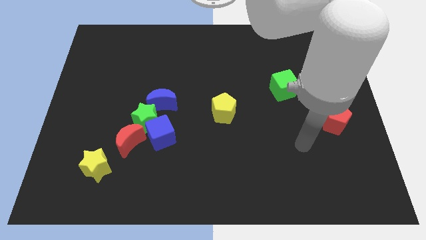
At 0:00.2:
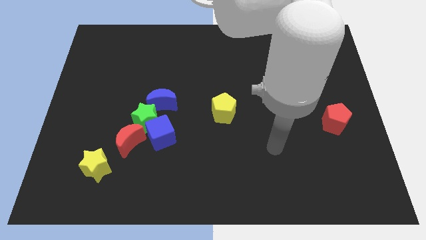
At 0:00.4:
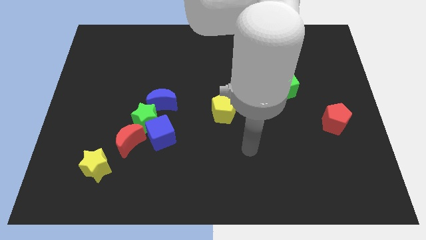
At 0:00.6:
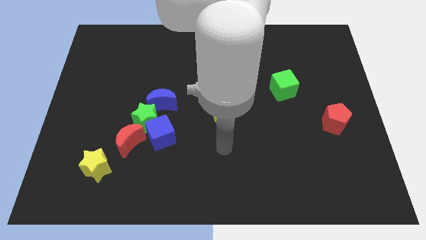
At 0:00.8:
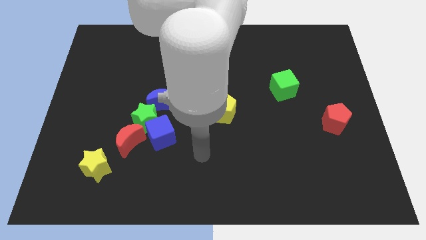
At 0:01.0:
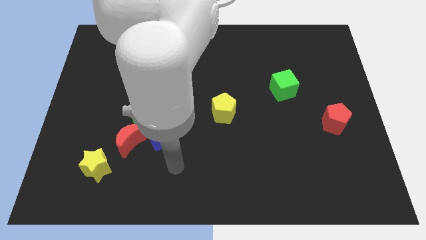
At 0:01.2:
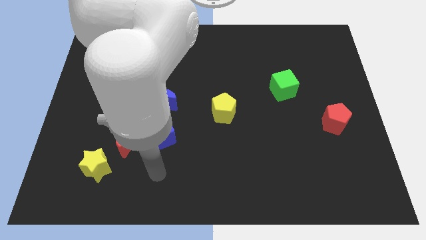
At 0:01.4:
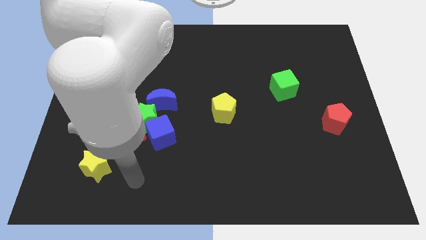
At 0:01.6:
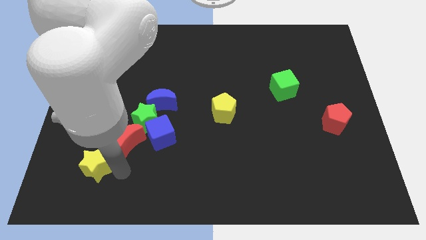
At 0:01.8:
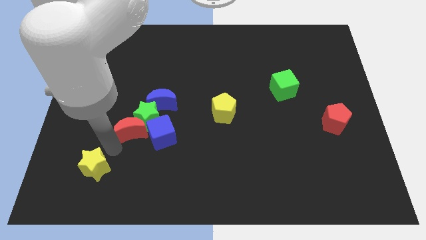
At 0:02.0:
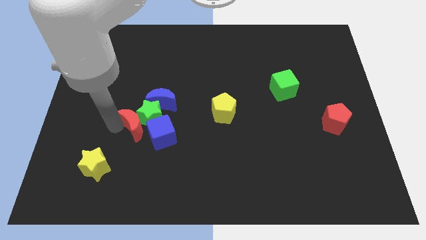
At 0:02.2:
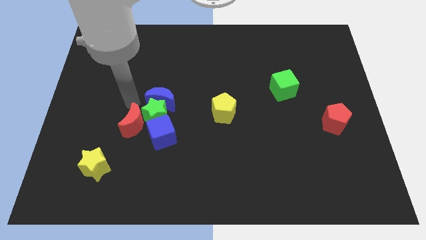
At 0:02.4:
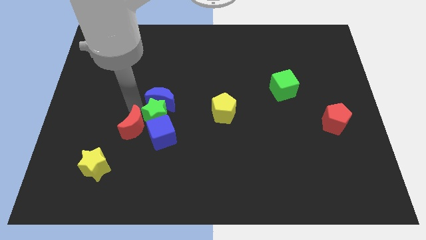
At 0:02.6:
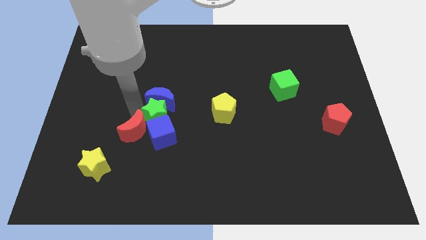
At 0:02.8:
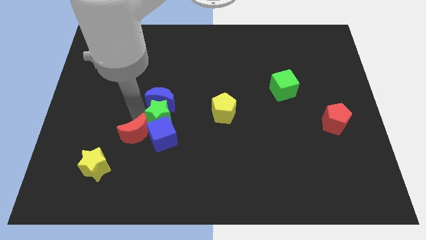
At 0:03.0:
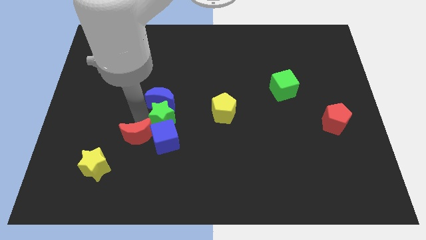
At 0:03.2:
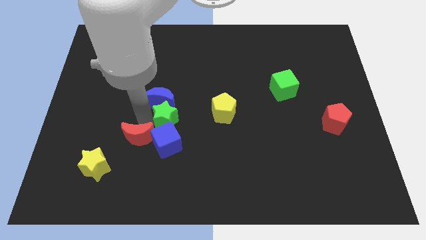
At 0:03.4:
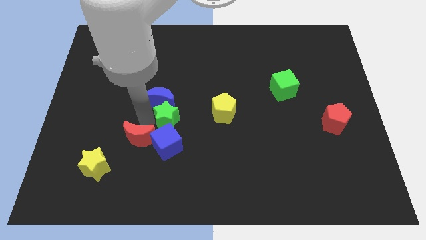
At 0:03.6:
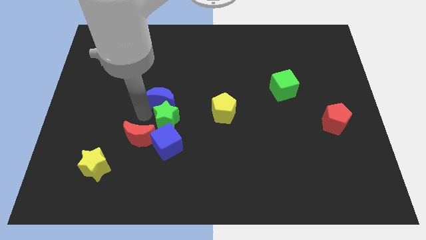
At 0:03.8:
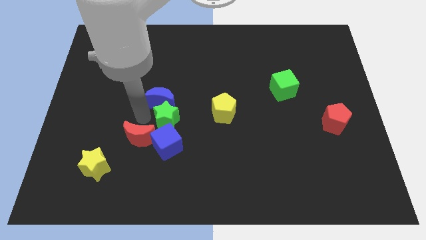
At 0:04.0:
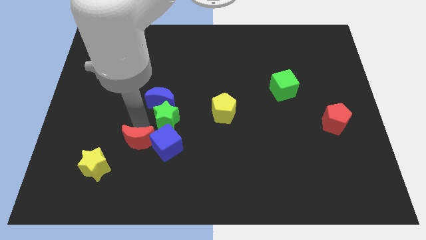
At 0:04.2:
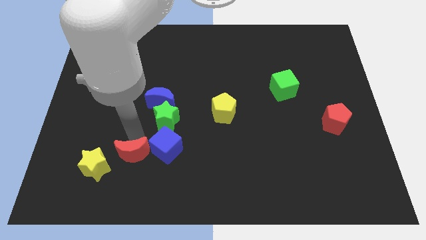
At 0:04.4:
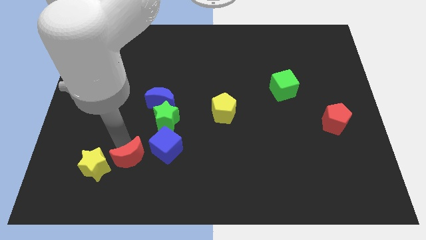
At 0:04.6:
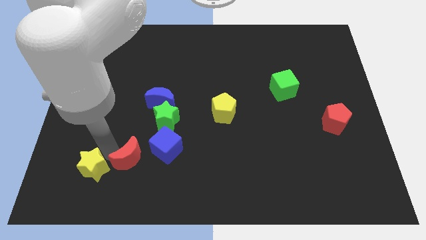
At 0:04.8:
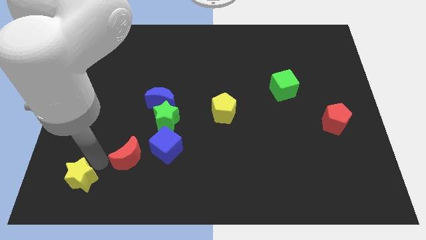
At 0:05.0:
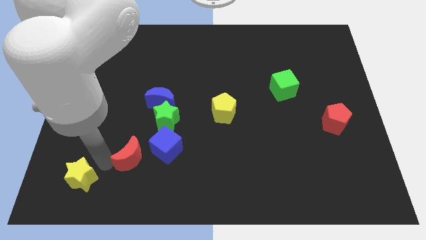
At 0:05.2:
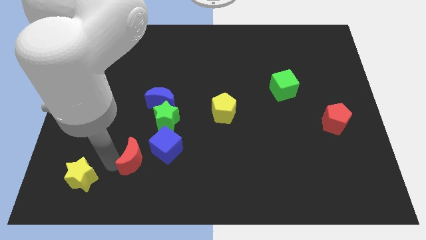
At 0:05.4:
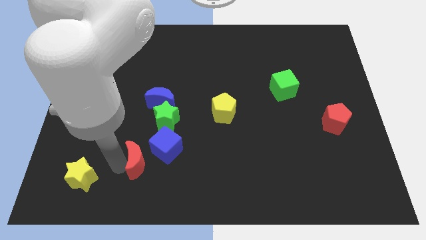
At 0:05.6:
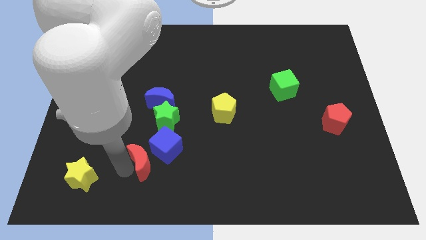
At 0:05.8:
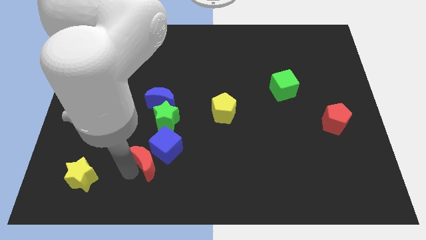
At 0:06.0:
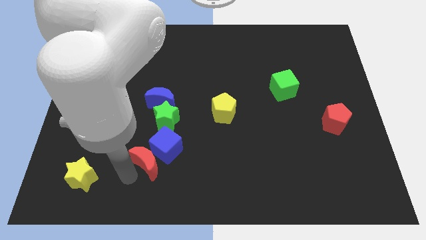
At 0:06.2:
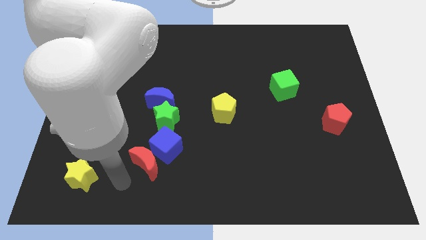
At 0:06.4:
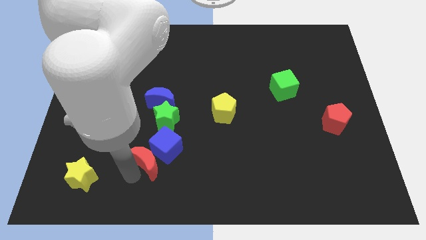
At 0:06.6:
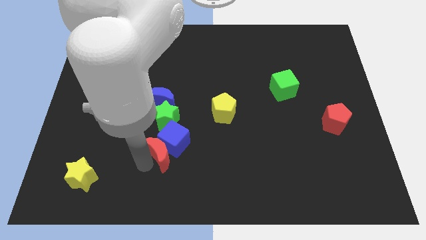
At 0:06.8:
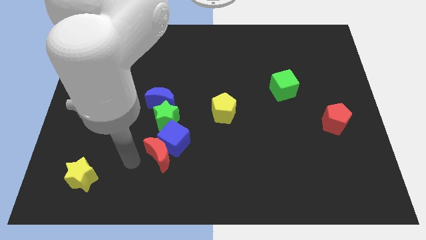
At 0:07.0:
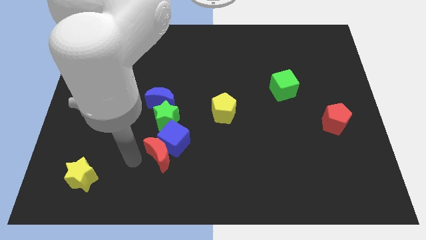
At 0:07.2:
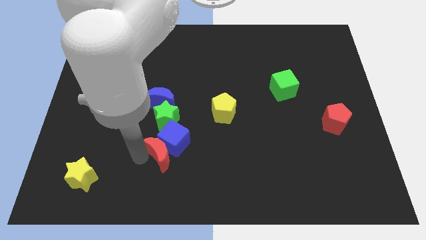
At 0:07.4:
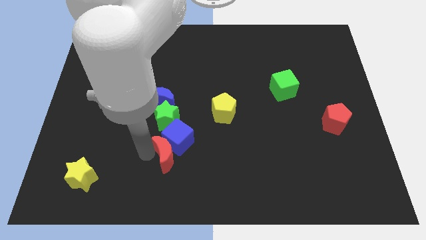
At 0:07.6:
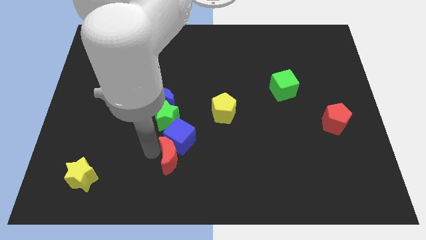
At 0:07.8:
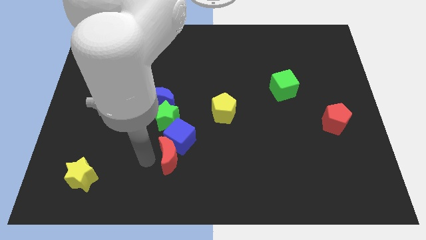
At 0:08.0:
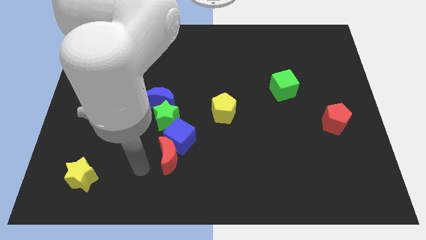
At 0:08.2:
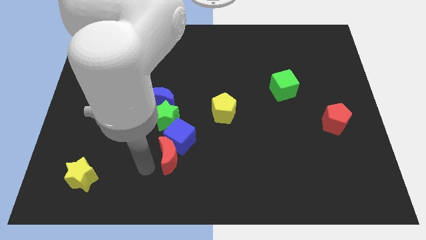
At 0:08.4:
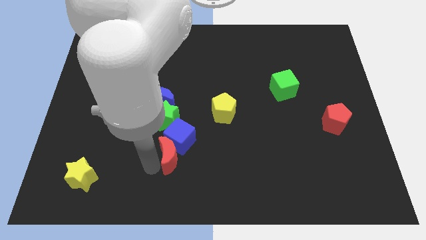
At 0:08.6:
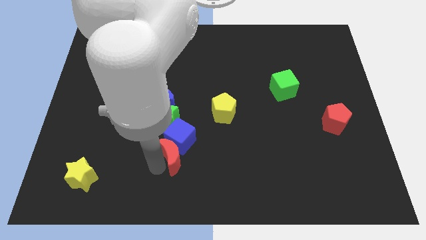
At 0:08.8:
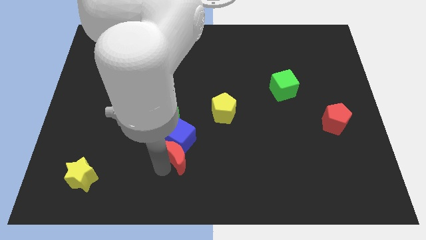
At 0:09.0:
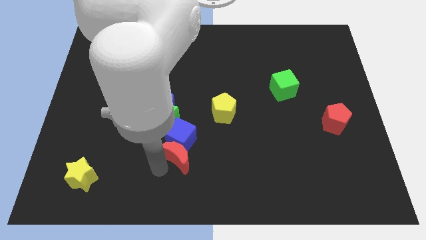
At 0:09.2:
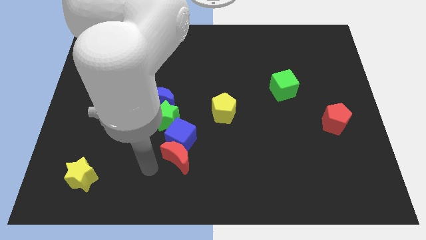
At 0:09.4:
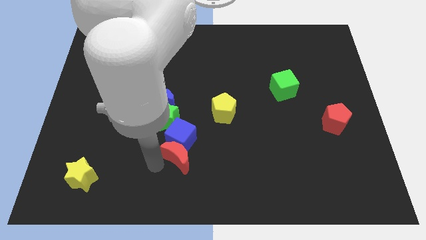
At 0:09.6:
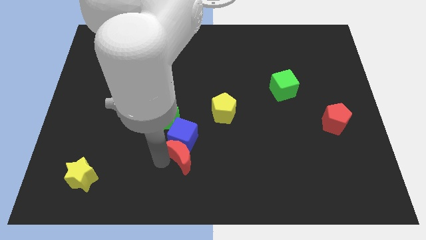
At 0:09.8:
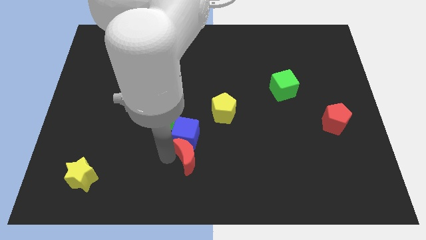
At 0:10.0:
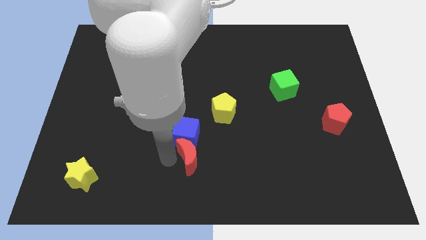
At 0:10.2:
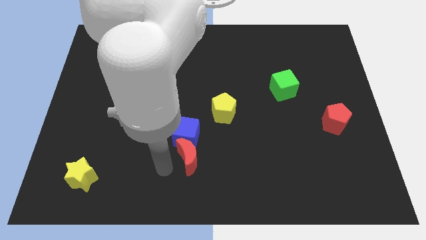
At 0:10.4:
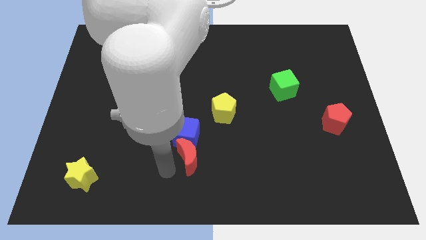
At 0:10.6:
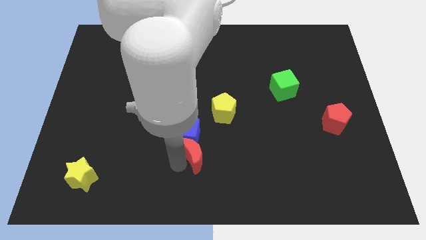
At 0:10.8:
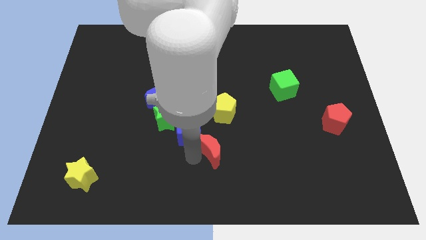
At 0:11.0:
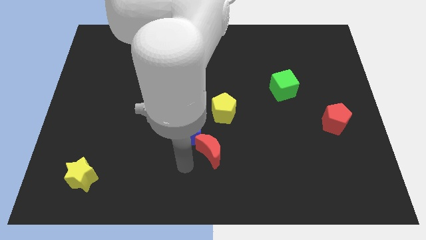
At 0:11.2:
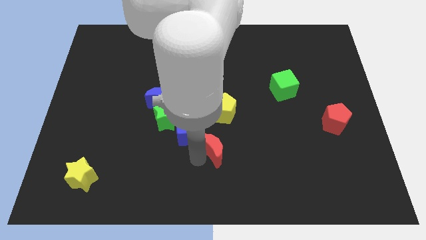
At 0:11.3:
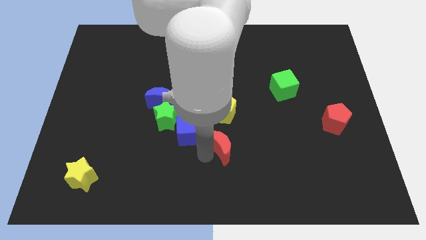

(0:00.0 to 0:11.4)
move the red moon to the right

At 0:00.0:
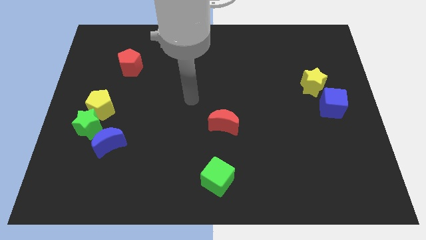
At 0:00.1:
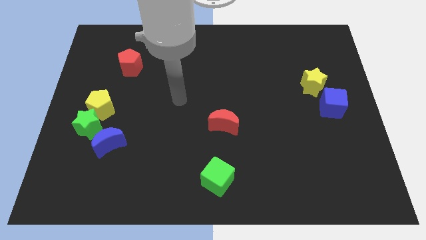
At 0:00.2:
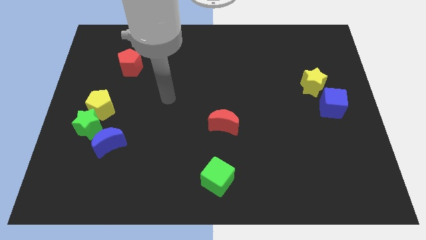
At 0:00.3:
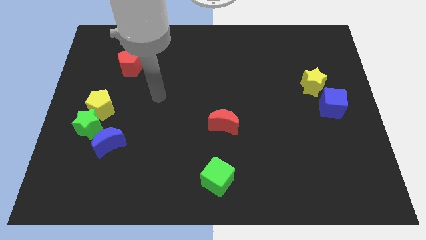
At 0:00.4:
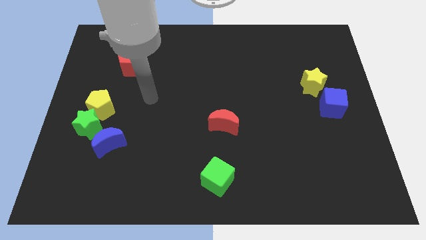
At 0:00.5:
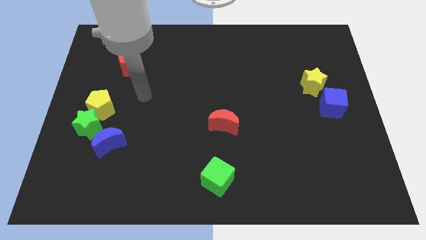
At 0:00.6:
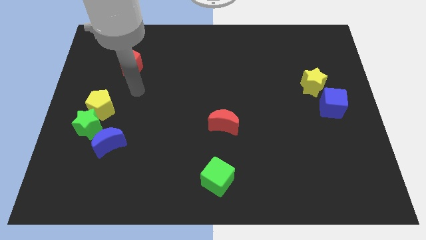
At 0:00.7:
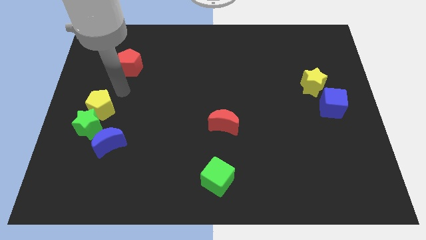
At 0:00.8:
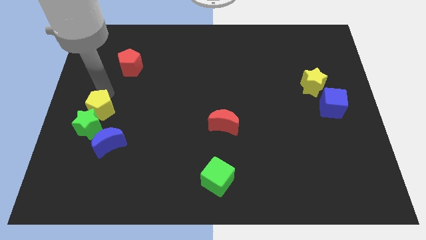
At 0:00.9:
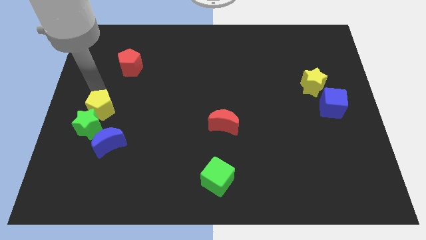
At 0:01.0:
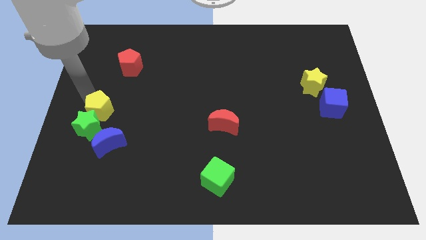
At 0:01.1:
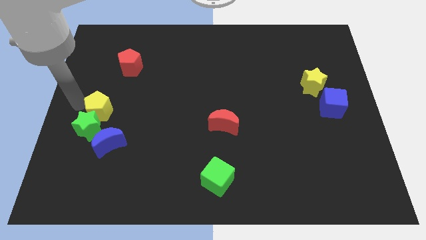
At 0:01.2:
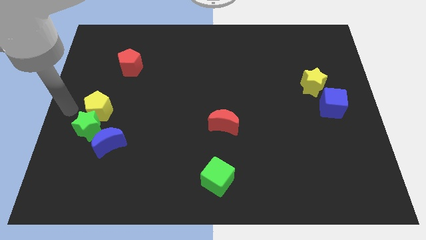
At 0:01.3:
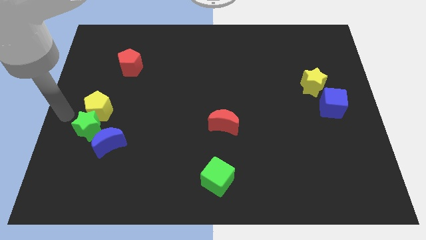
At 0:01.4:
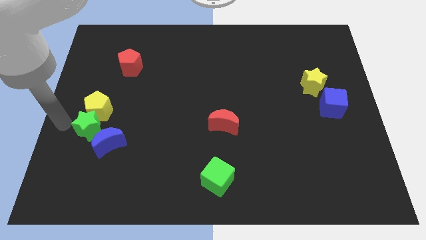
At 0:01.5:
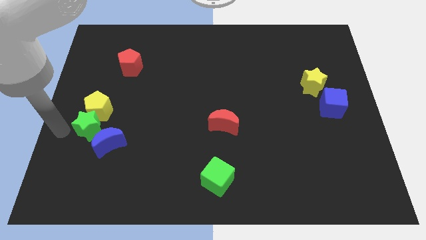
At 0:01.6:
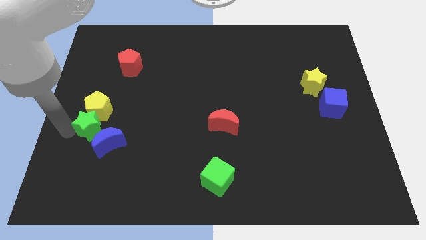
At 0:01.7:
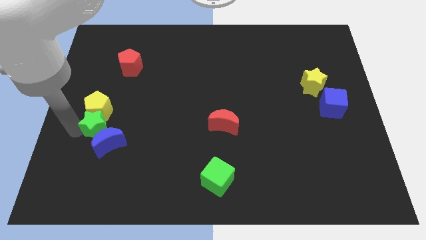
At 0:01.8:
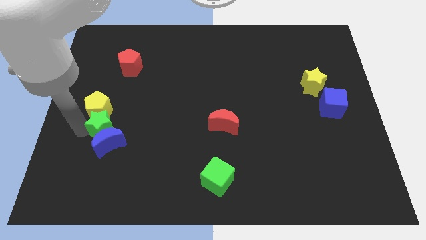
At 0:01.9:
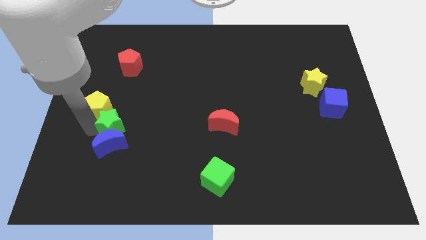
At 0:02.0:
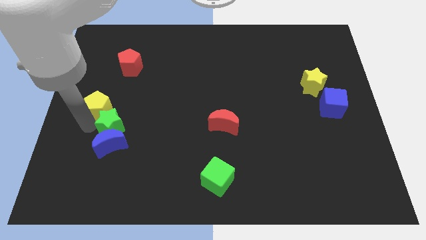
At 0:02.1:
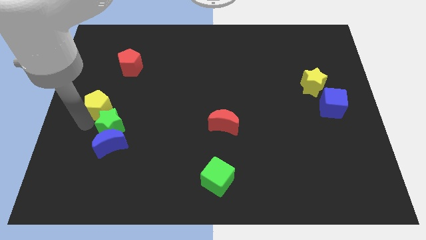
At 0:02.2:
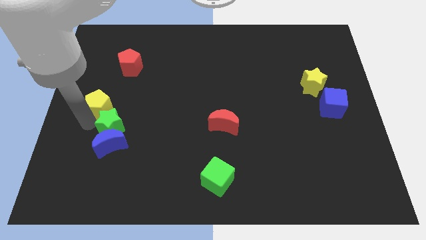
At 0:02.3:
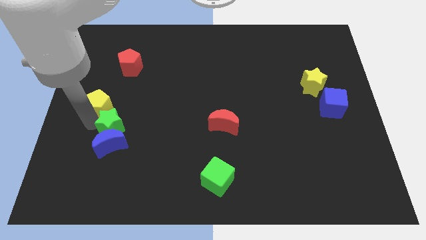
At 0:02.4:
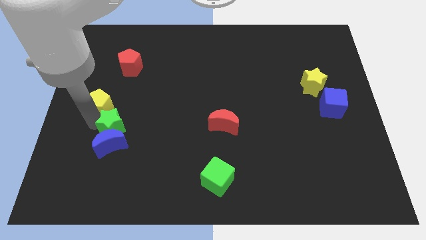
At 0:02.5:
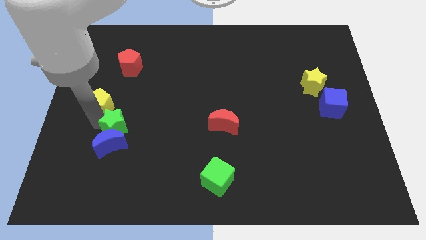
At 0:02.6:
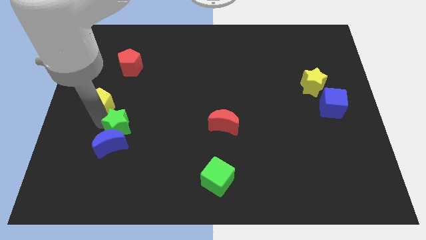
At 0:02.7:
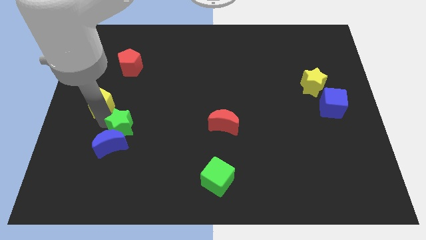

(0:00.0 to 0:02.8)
push the green star right a bit
